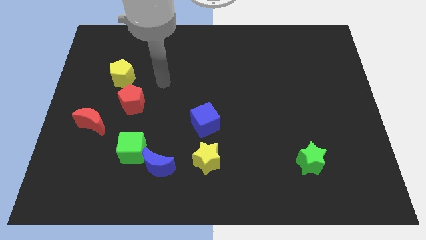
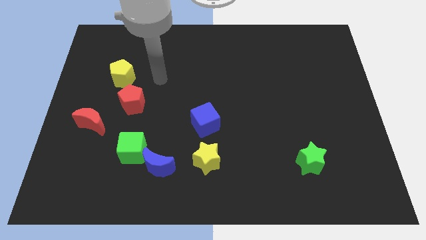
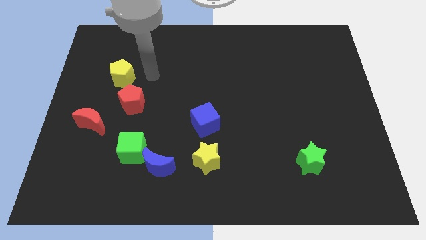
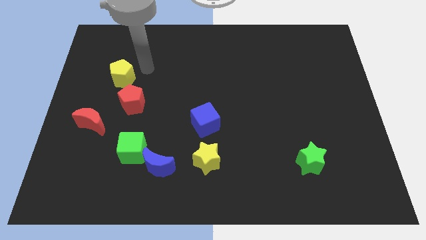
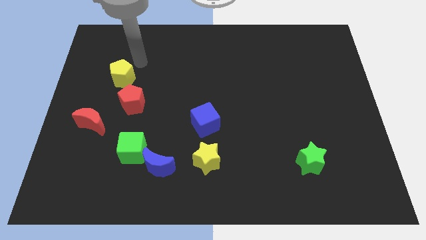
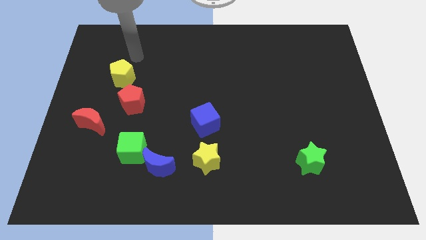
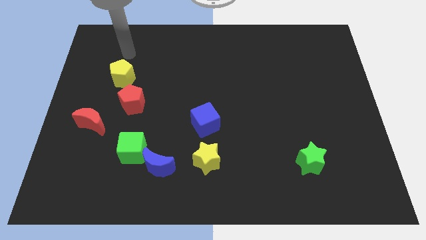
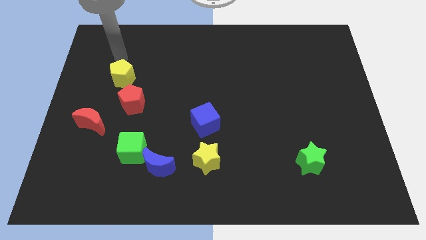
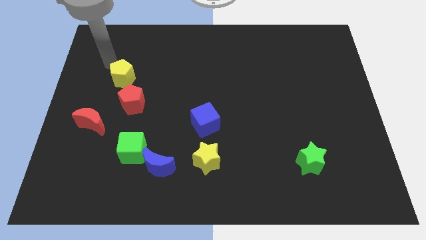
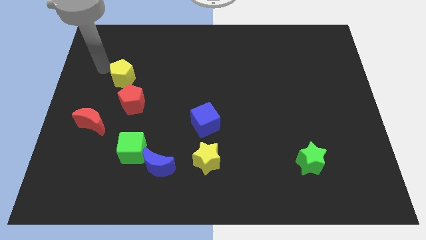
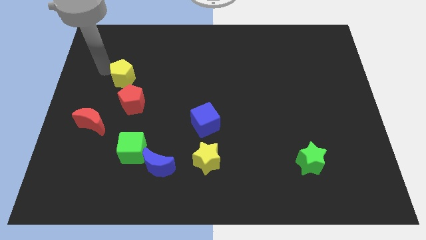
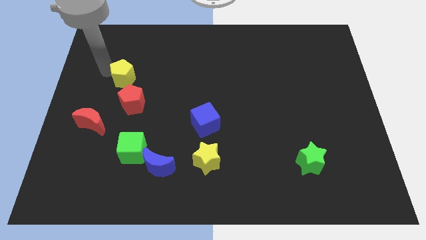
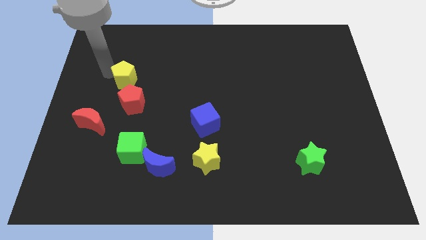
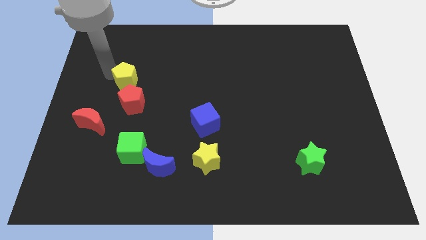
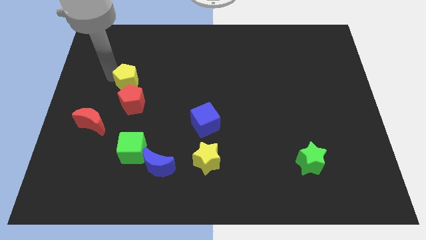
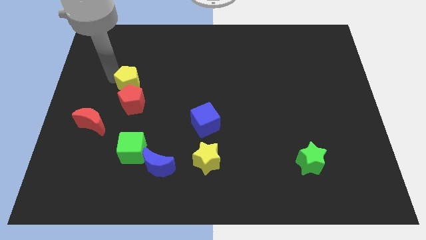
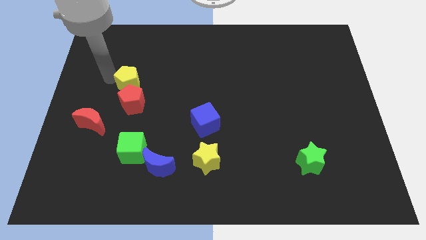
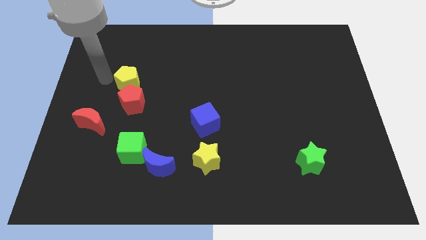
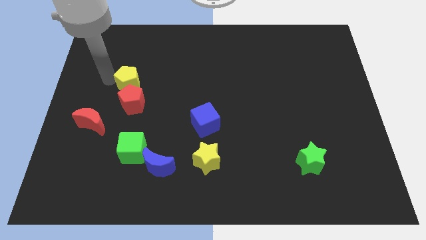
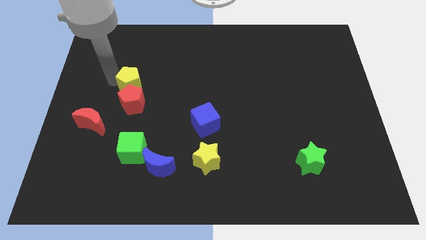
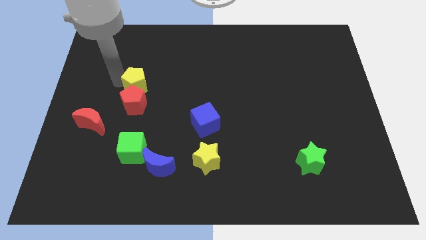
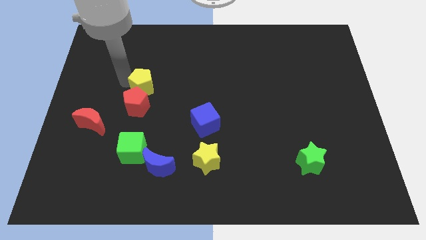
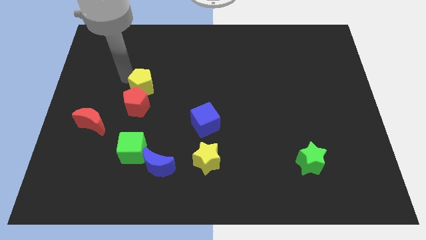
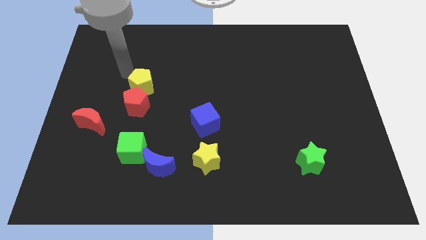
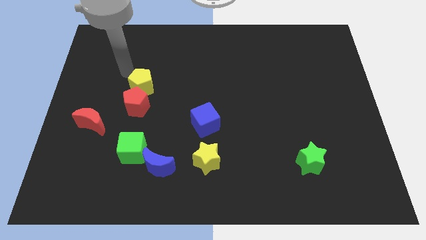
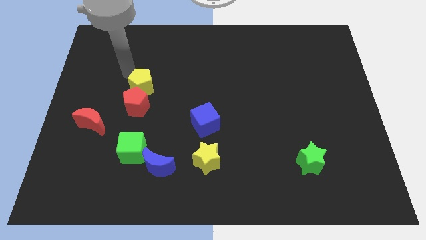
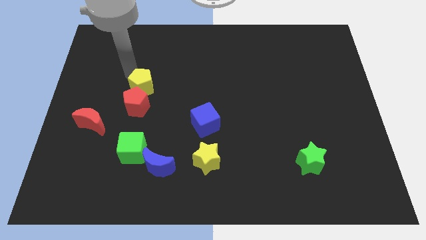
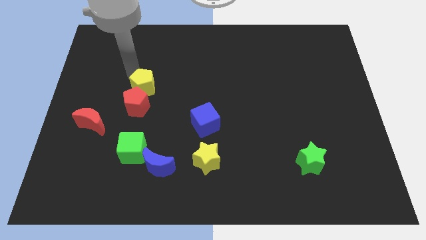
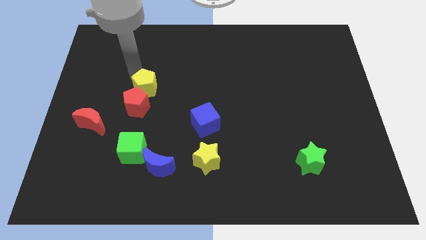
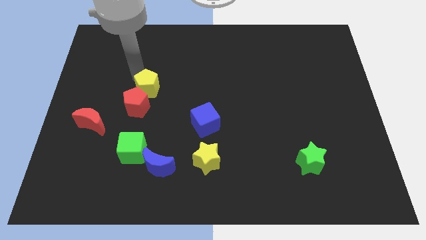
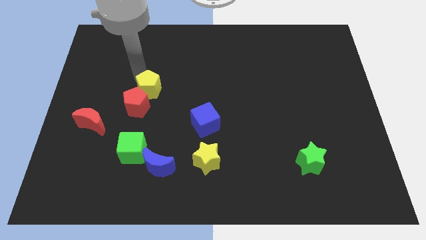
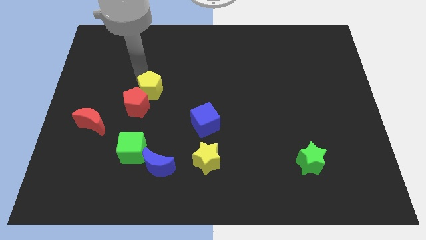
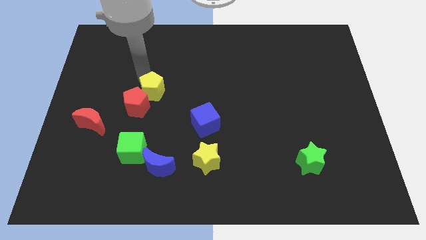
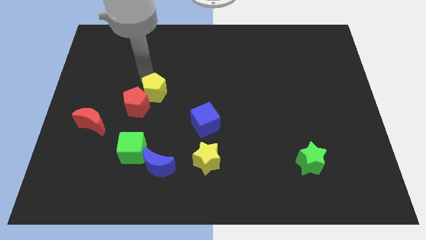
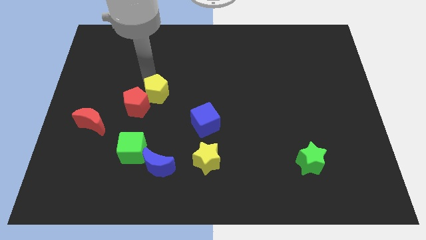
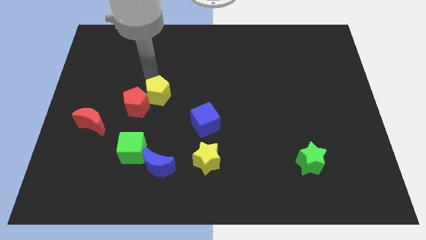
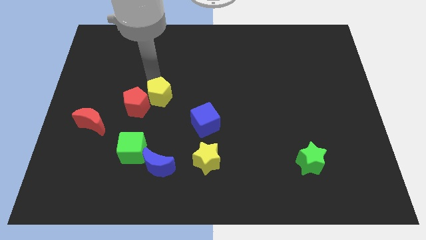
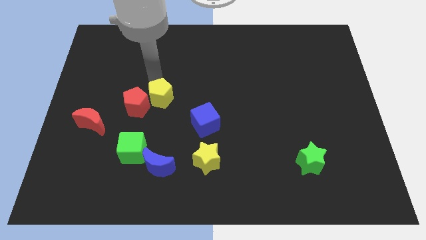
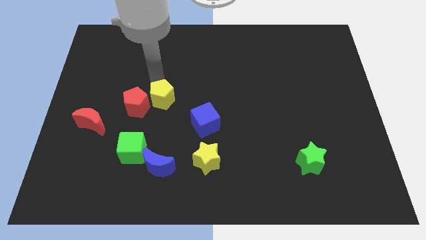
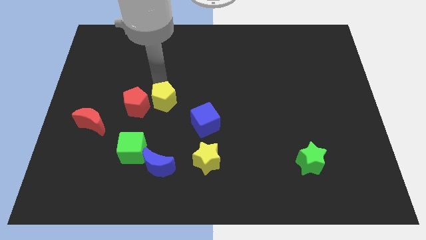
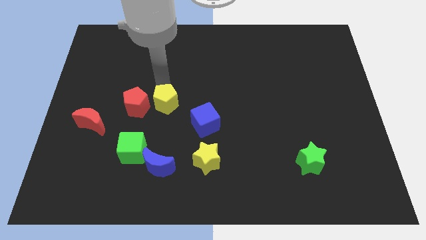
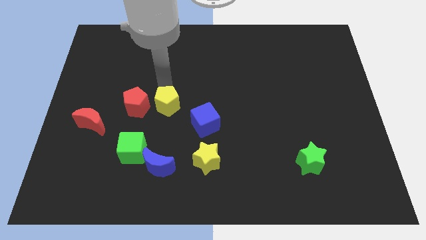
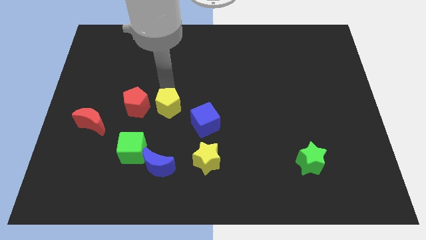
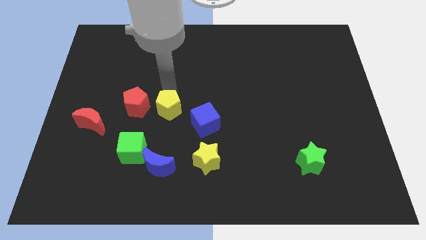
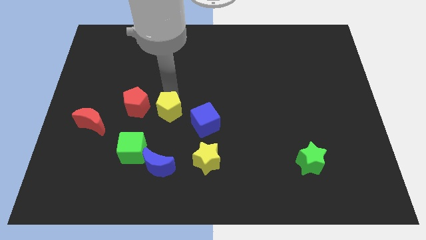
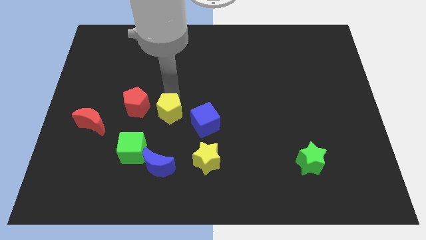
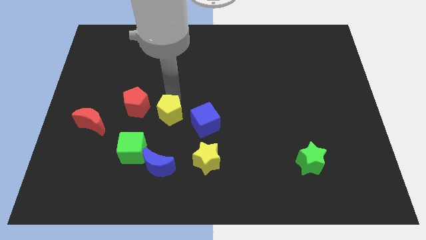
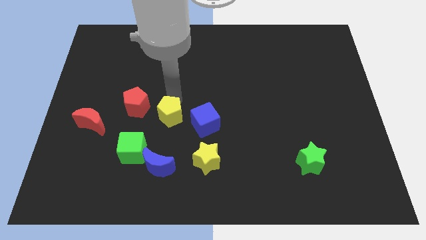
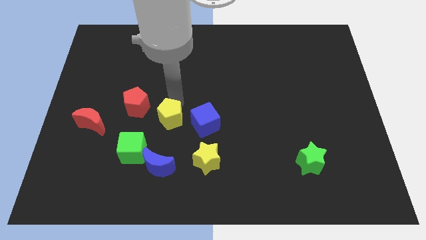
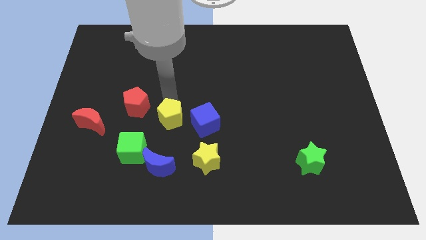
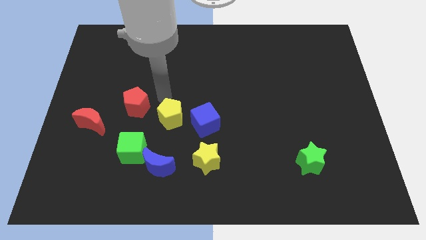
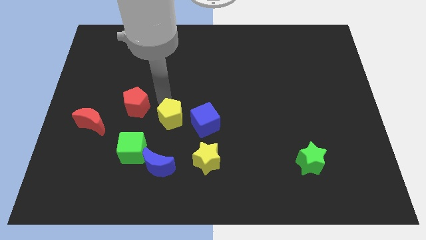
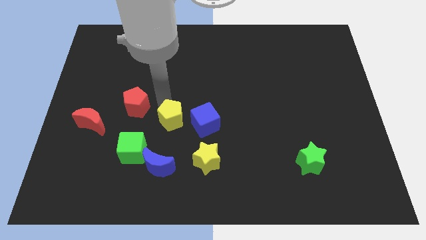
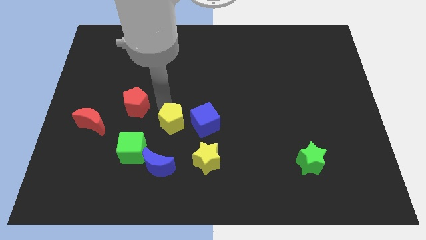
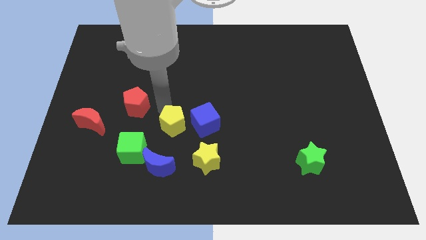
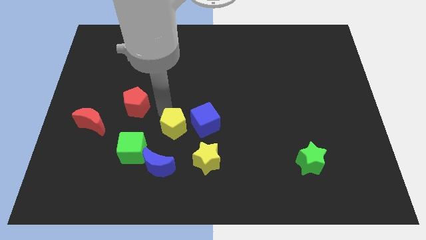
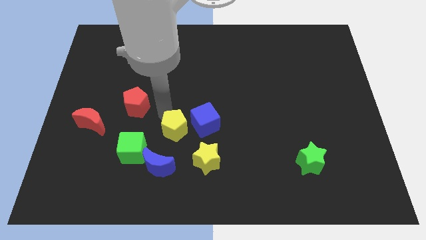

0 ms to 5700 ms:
put the yellow pentagon to the top right side of the blue moon

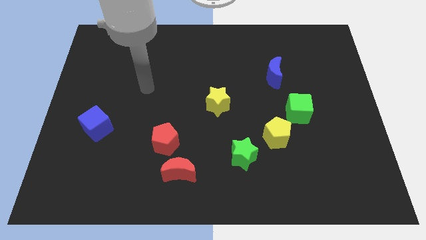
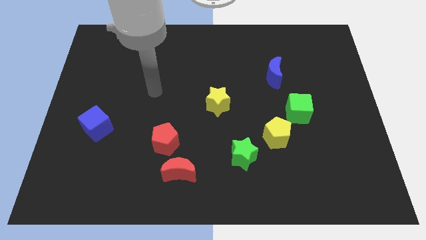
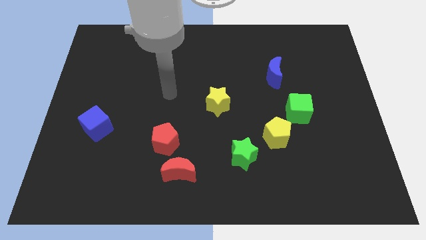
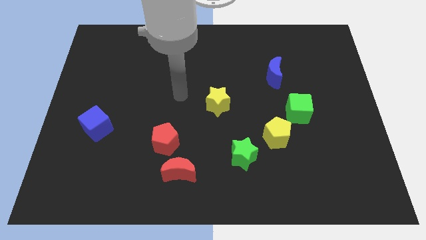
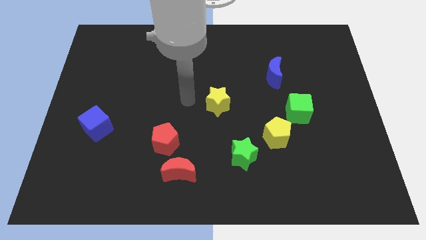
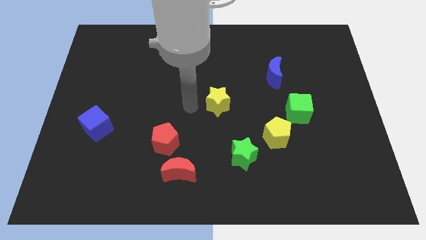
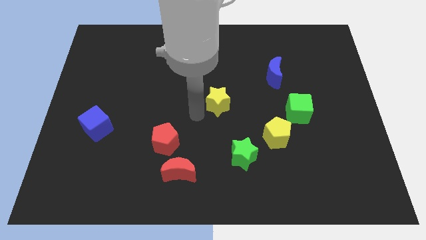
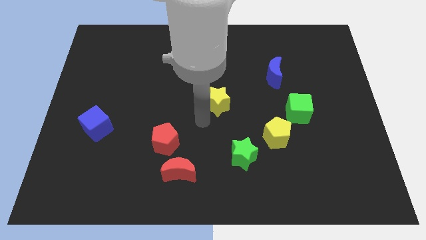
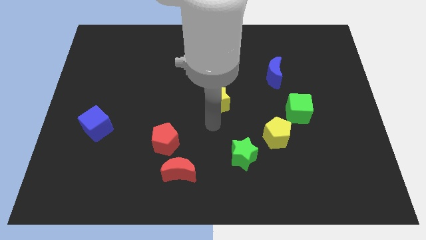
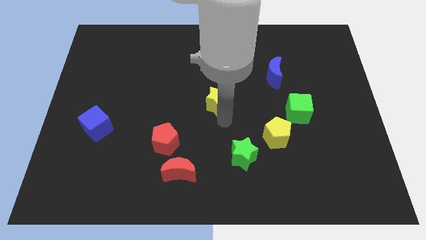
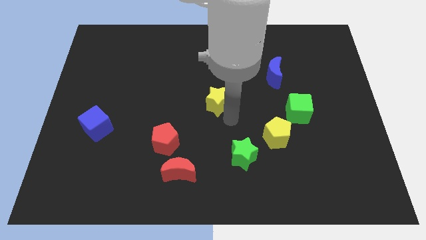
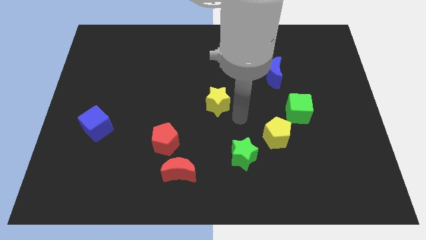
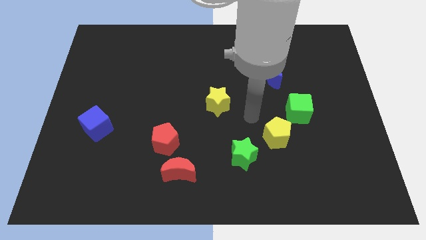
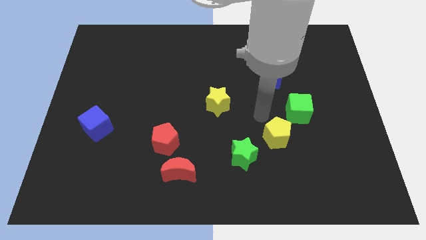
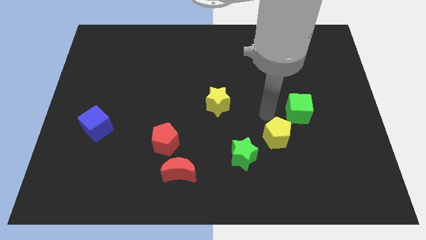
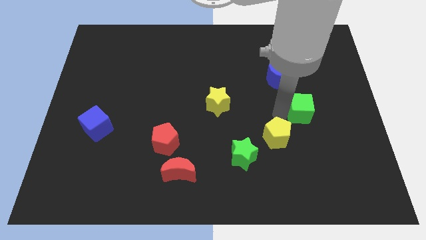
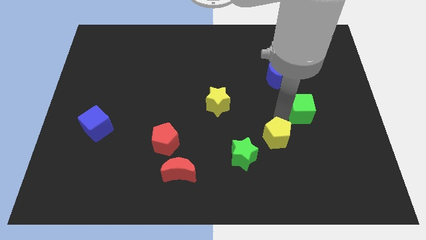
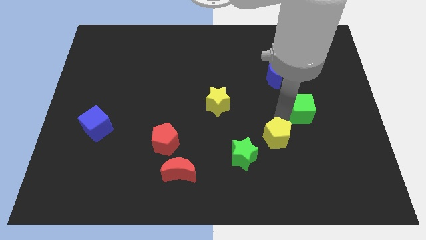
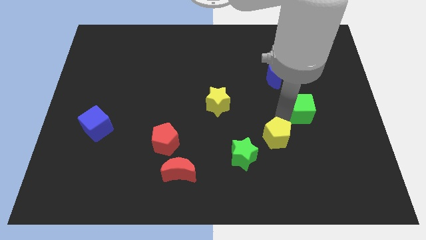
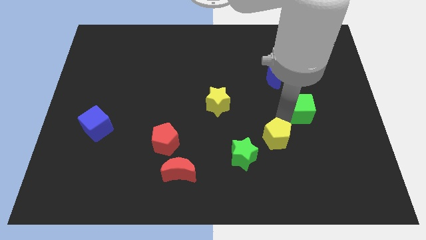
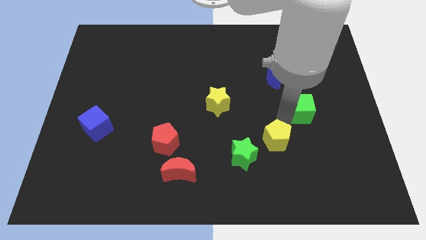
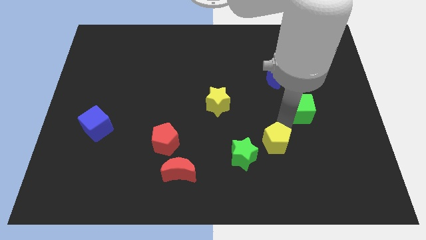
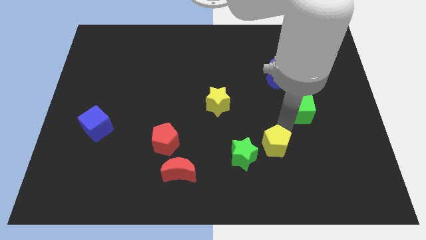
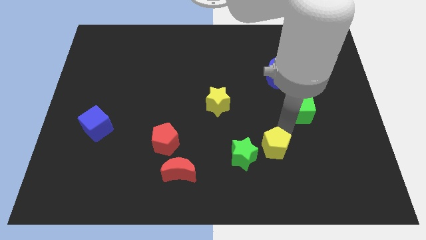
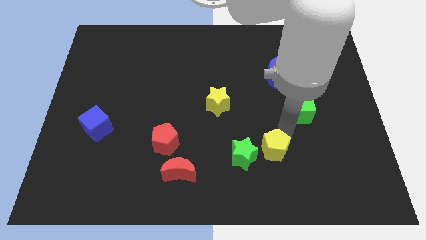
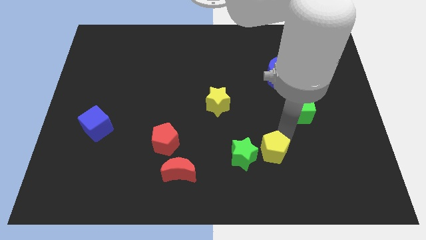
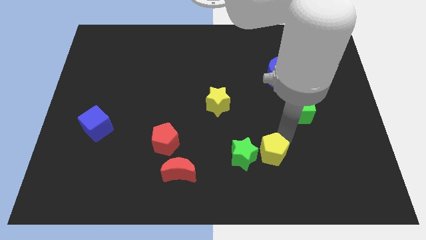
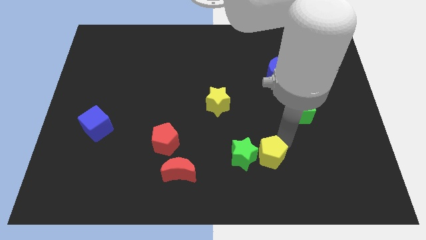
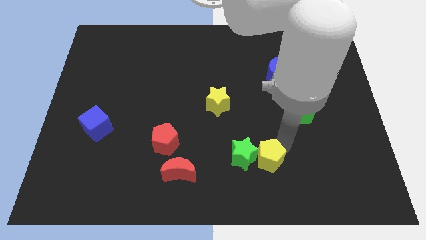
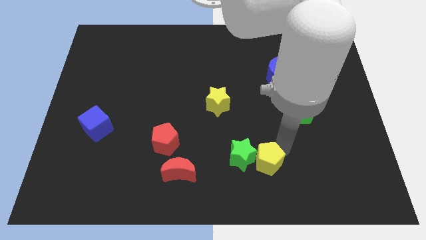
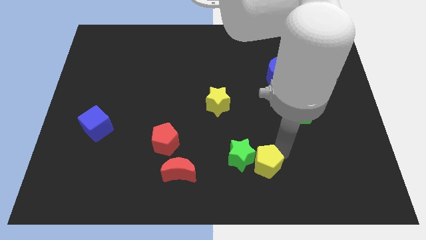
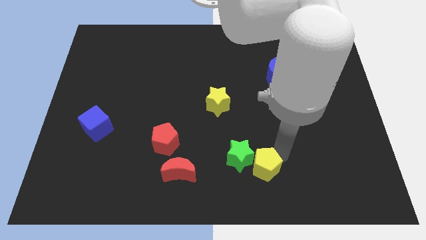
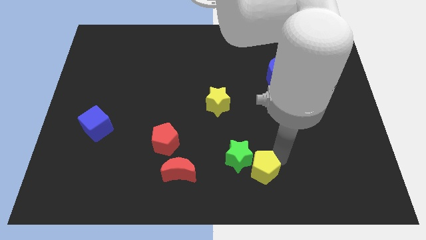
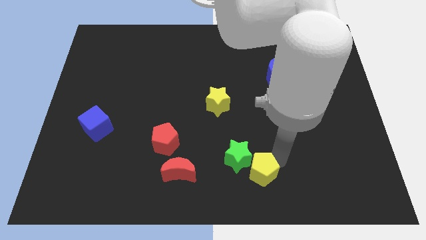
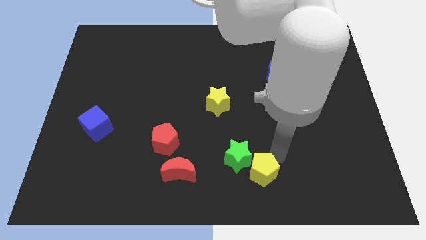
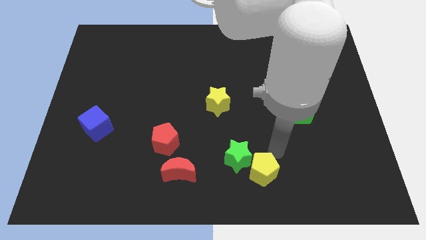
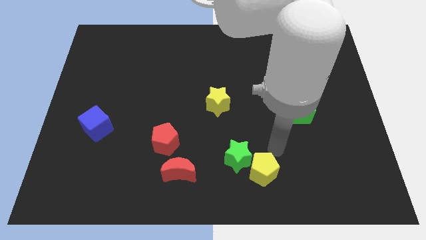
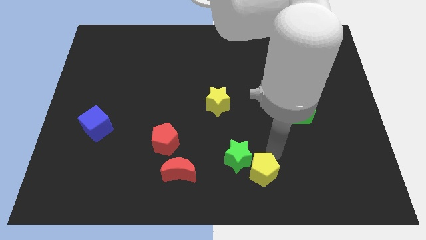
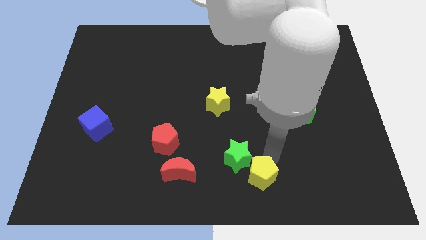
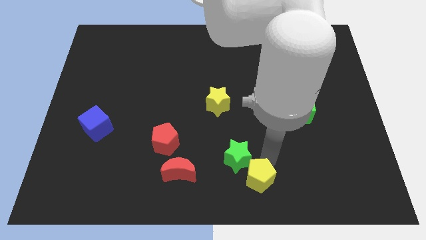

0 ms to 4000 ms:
push the yellow pentagon to the right side of the red moon
